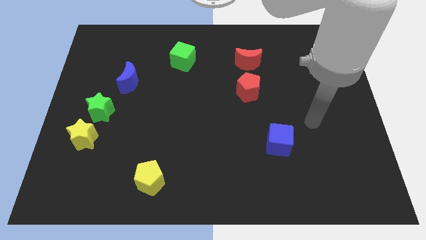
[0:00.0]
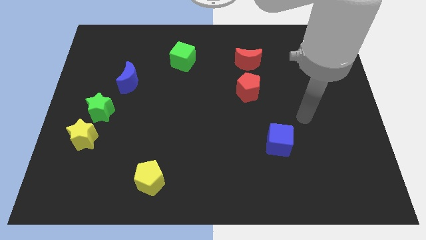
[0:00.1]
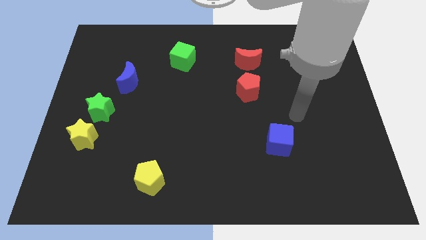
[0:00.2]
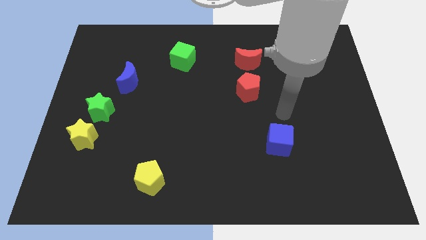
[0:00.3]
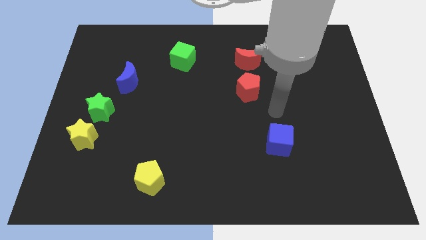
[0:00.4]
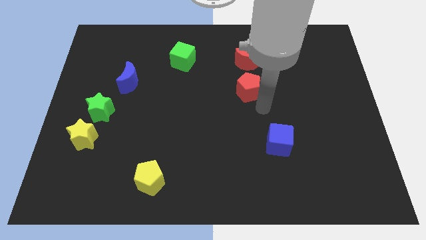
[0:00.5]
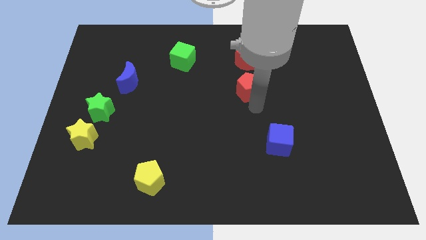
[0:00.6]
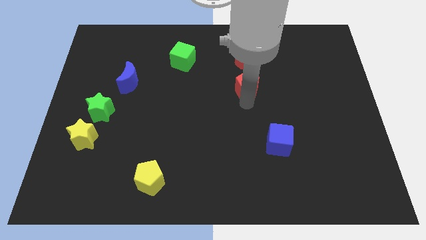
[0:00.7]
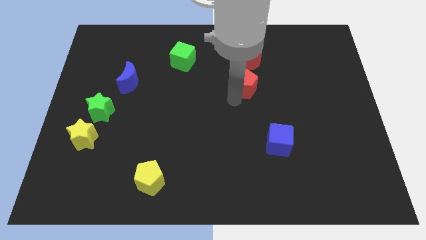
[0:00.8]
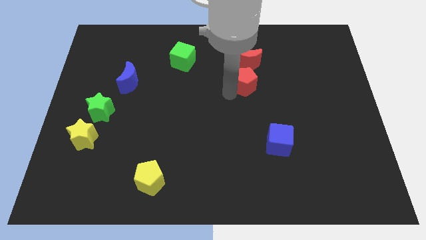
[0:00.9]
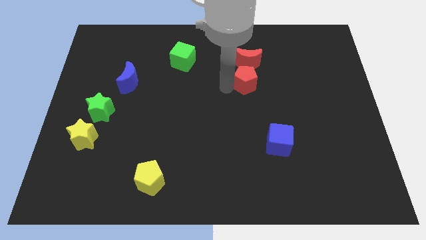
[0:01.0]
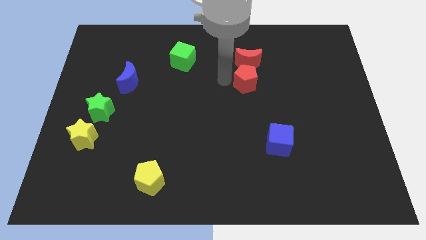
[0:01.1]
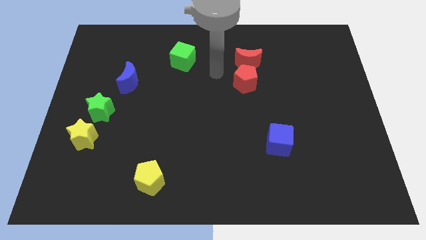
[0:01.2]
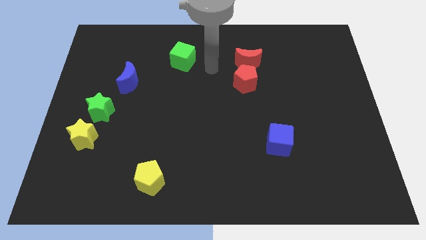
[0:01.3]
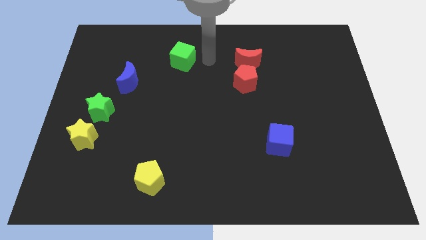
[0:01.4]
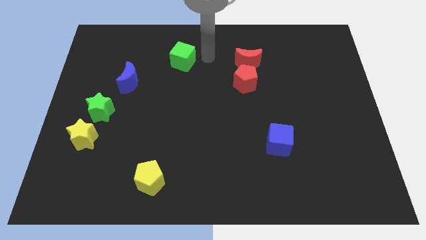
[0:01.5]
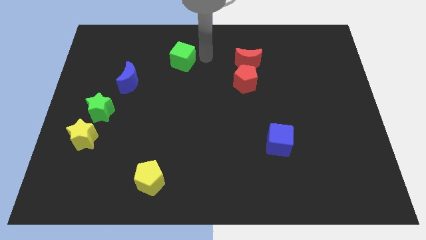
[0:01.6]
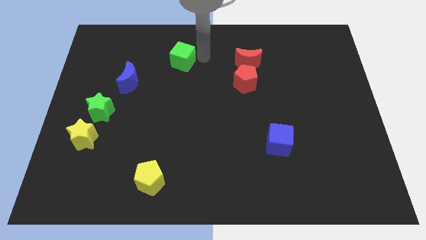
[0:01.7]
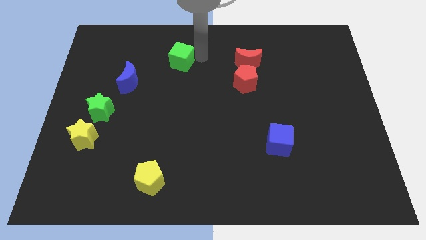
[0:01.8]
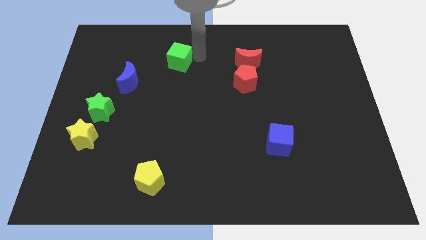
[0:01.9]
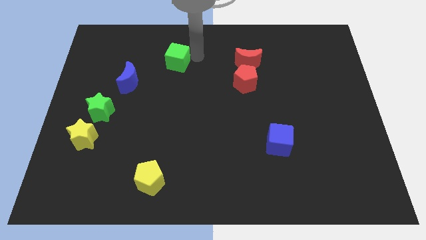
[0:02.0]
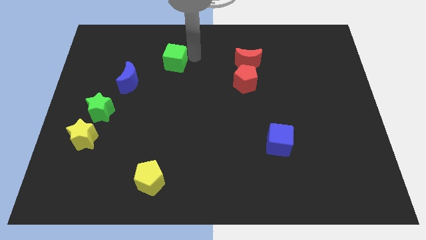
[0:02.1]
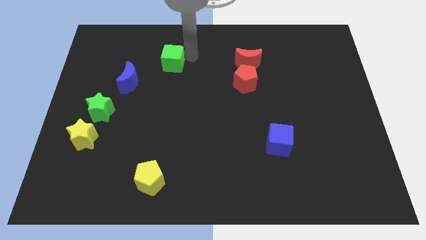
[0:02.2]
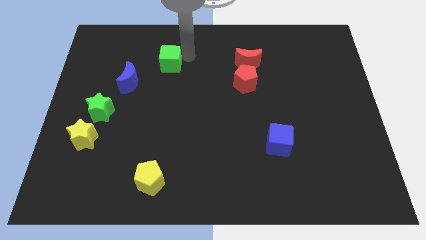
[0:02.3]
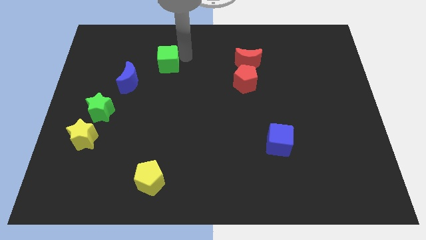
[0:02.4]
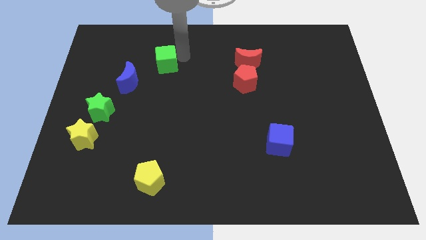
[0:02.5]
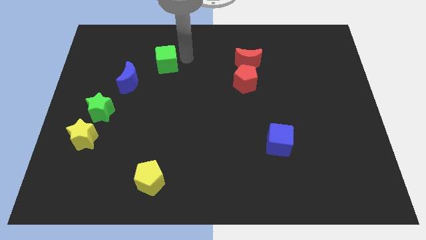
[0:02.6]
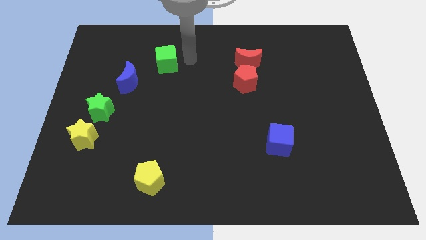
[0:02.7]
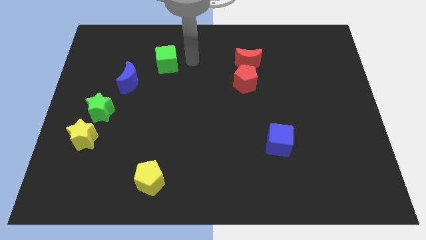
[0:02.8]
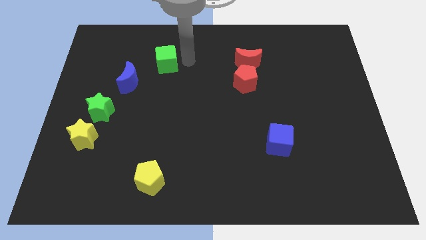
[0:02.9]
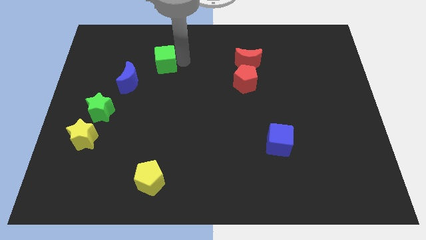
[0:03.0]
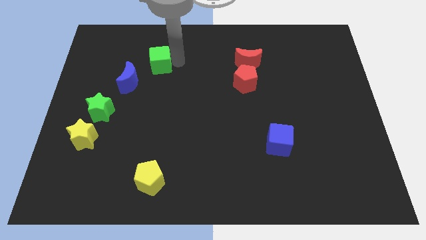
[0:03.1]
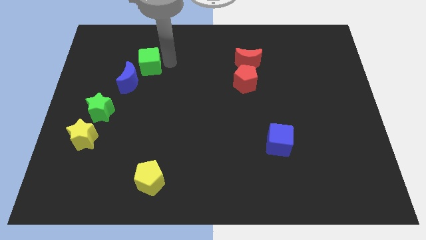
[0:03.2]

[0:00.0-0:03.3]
slightly push the green cube to the left

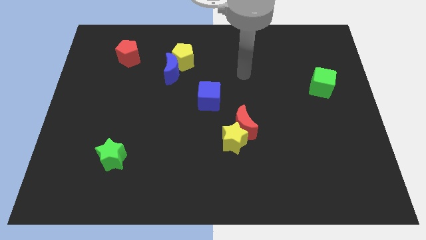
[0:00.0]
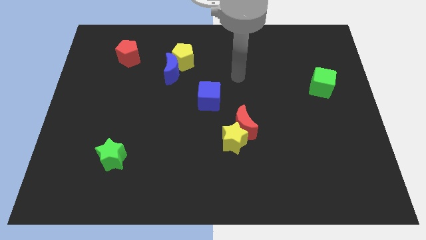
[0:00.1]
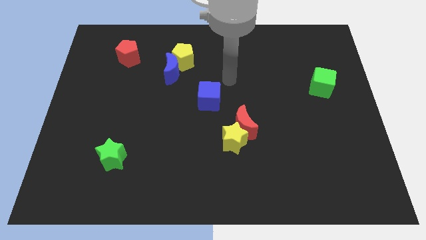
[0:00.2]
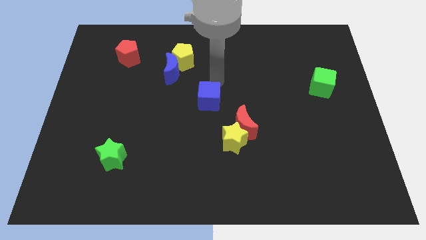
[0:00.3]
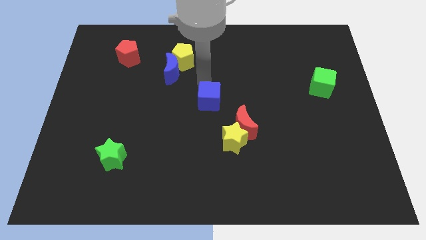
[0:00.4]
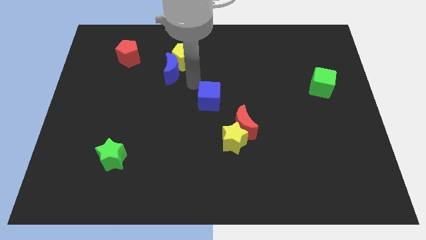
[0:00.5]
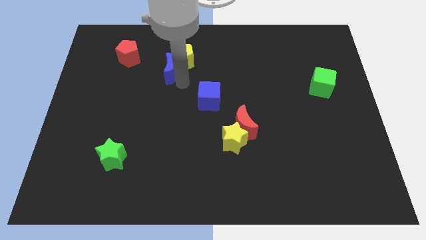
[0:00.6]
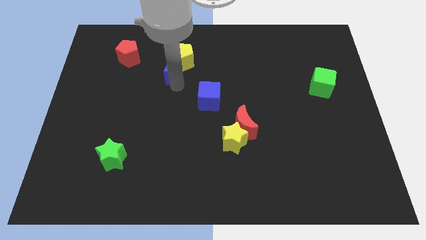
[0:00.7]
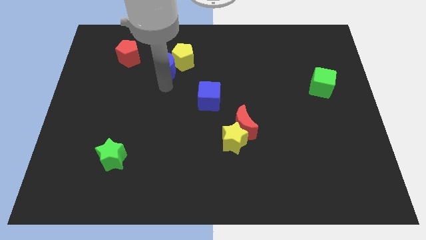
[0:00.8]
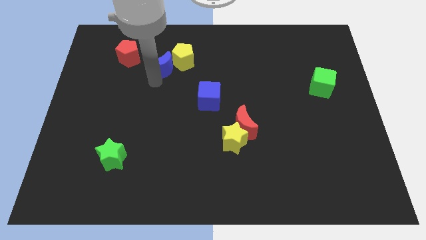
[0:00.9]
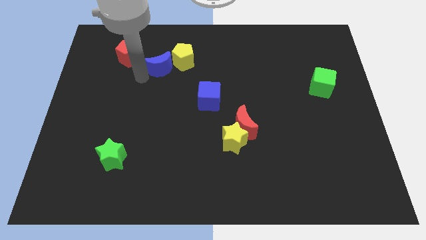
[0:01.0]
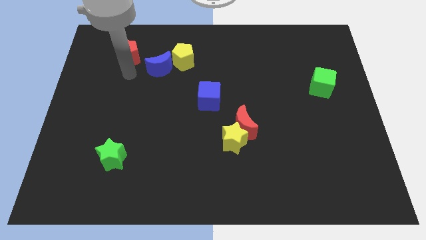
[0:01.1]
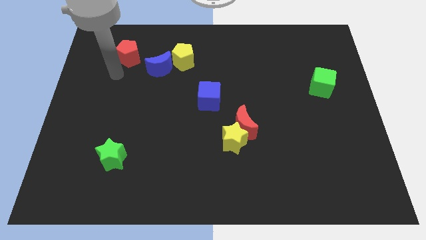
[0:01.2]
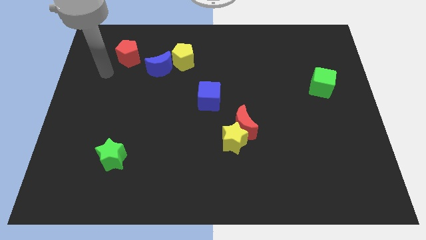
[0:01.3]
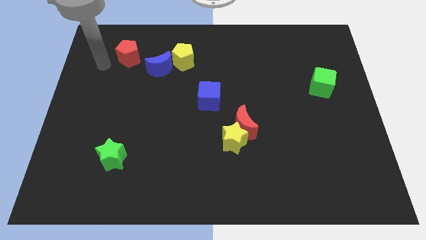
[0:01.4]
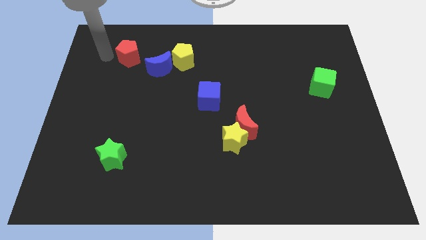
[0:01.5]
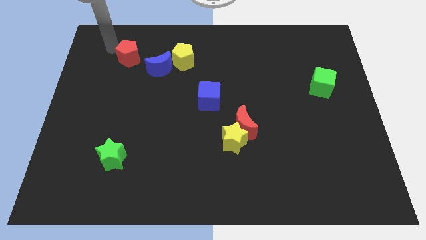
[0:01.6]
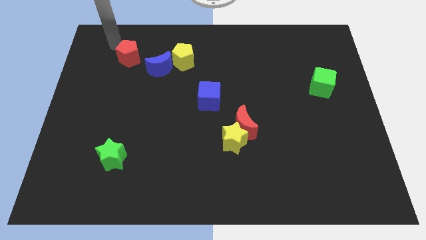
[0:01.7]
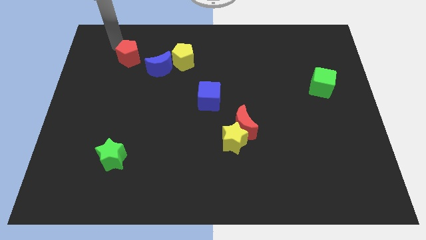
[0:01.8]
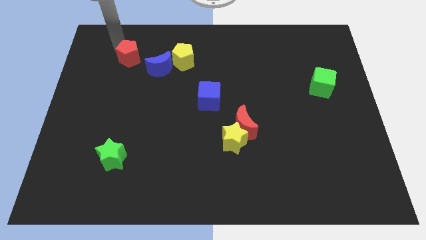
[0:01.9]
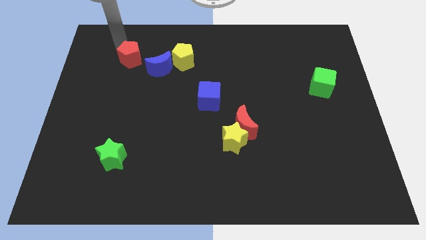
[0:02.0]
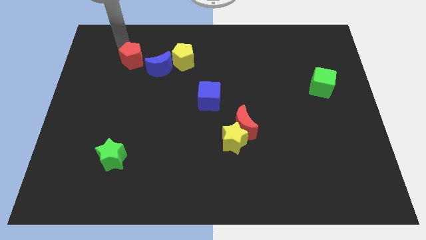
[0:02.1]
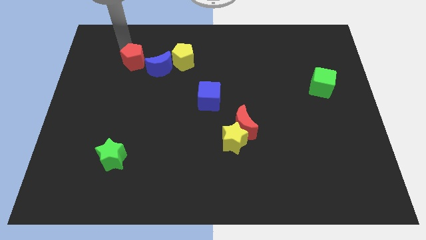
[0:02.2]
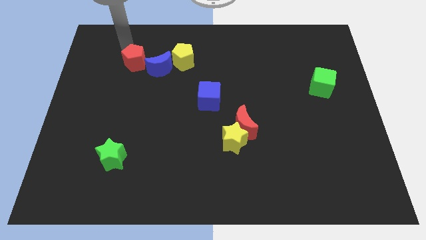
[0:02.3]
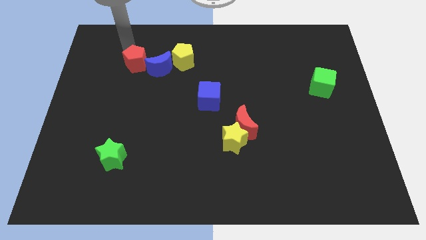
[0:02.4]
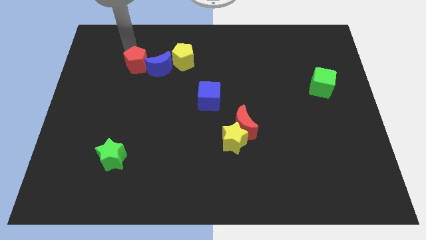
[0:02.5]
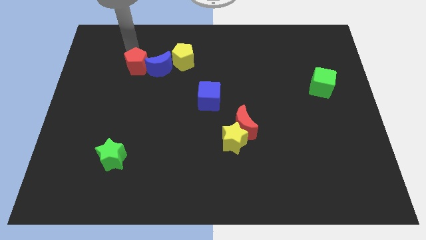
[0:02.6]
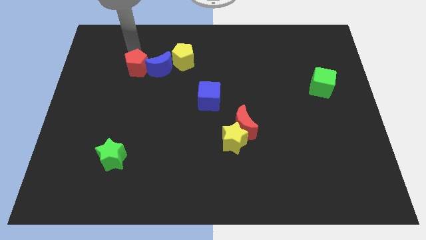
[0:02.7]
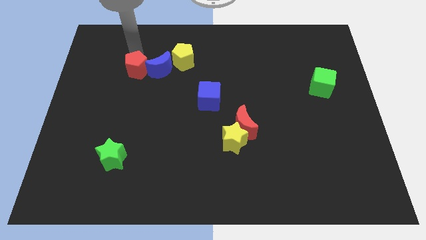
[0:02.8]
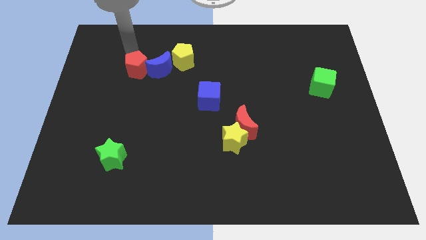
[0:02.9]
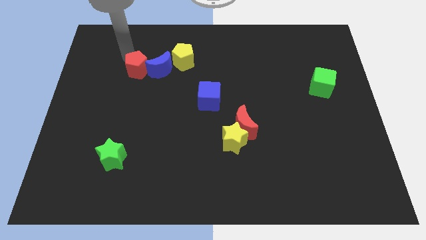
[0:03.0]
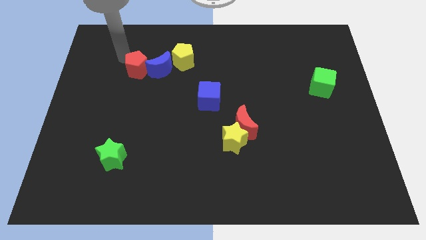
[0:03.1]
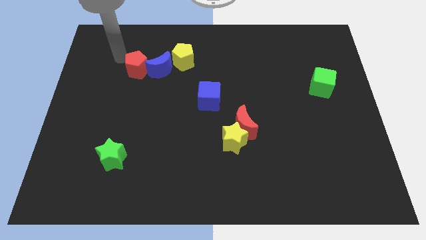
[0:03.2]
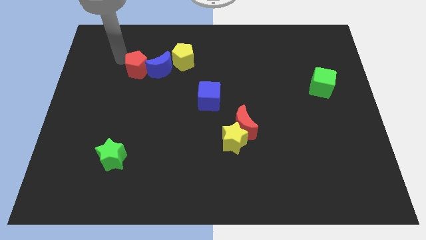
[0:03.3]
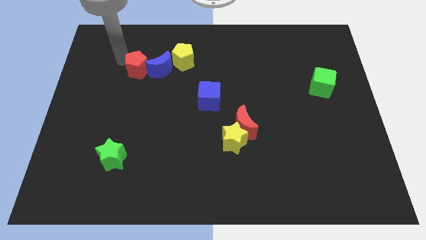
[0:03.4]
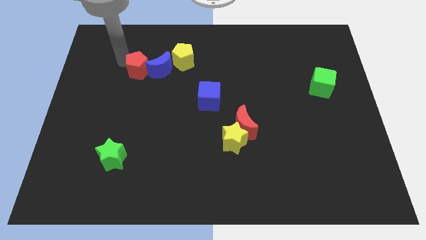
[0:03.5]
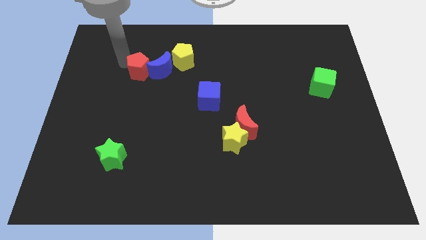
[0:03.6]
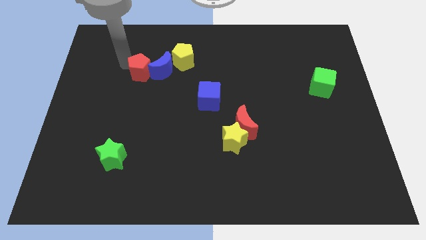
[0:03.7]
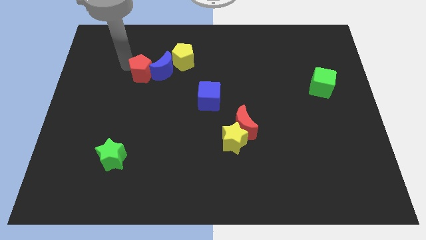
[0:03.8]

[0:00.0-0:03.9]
slightly push the red pentagon diagonally down and to the right

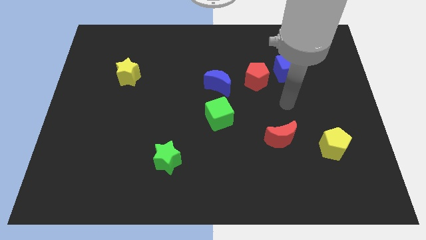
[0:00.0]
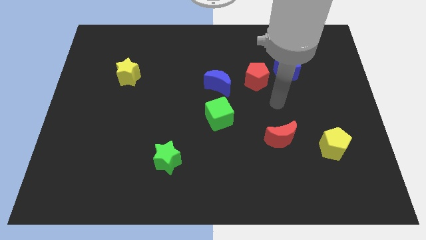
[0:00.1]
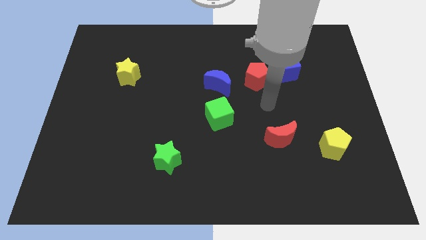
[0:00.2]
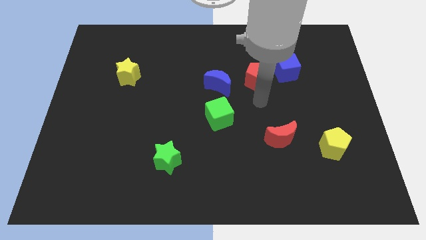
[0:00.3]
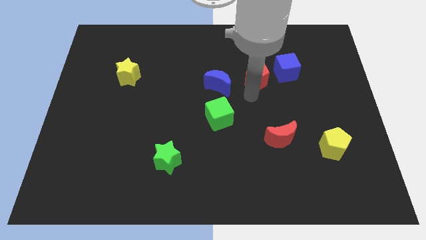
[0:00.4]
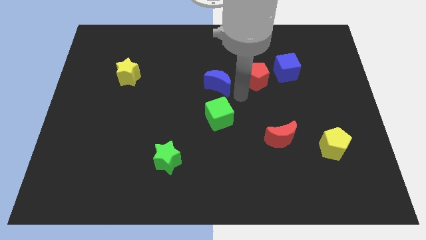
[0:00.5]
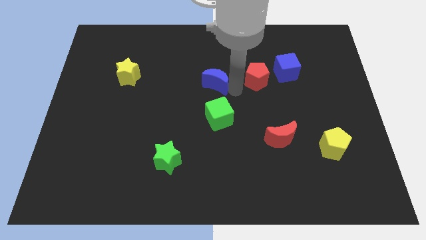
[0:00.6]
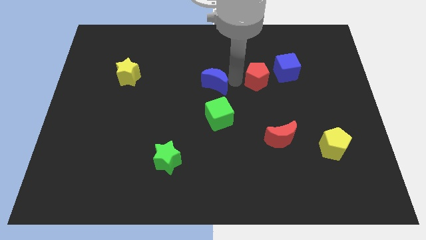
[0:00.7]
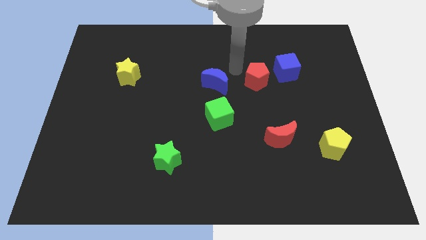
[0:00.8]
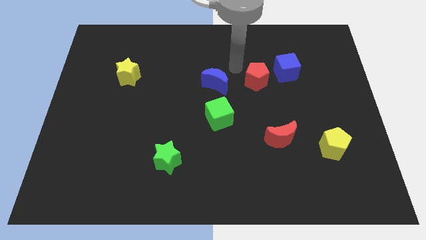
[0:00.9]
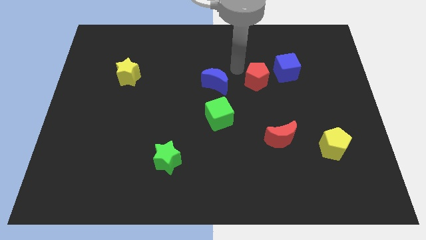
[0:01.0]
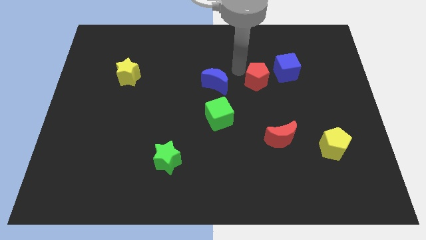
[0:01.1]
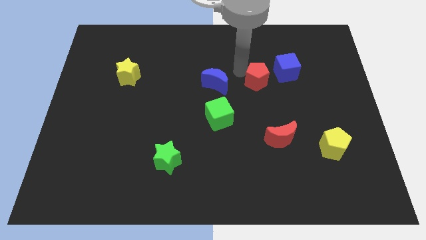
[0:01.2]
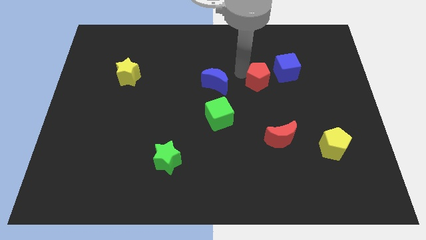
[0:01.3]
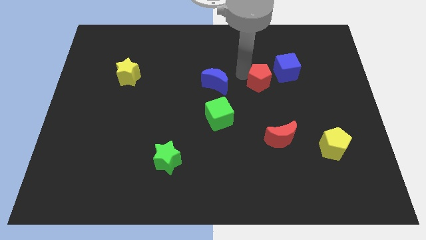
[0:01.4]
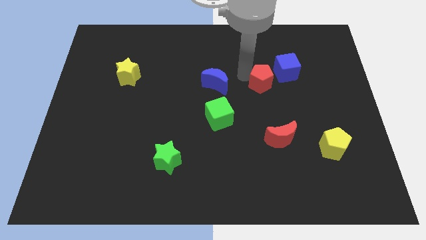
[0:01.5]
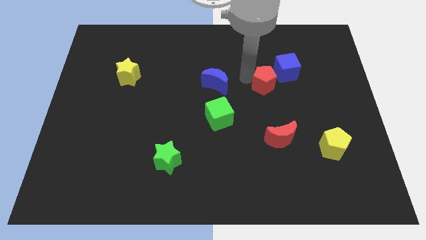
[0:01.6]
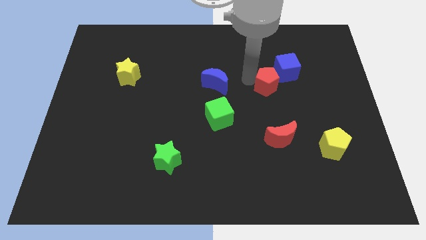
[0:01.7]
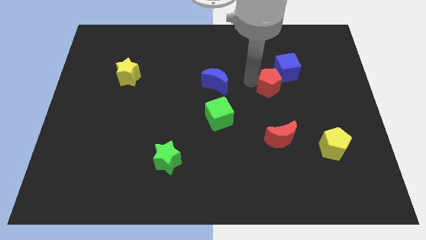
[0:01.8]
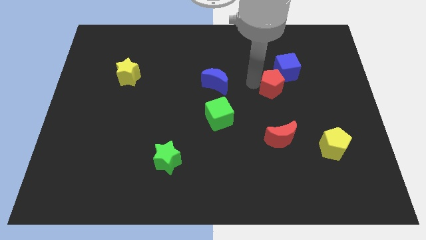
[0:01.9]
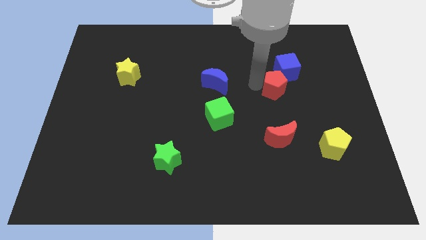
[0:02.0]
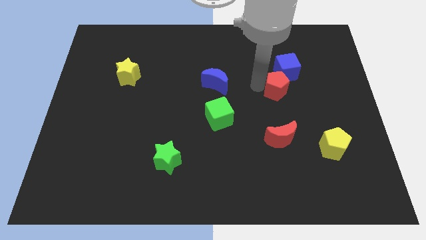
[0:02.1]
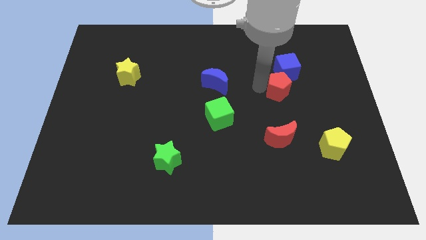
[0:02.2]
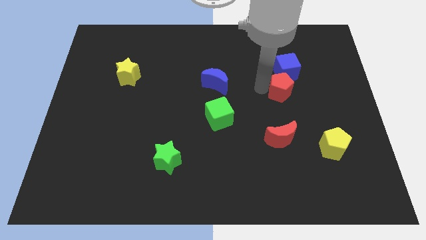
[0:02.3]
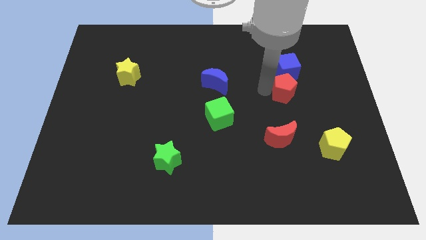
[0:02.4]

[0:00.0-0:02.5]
slightly move the red pentagon diagonally downwards and to the right
